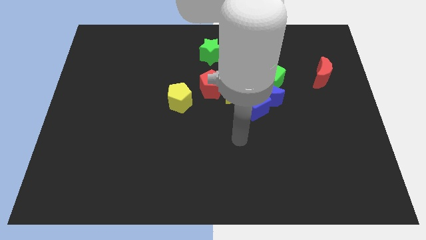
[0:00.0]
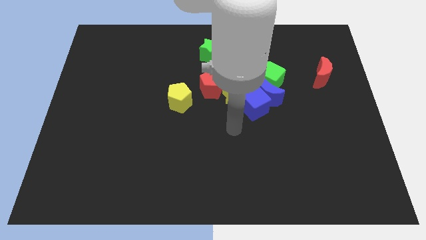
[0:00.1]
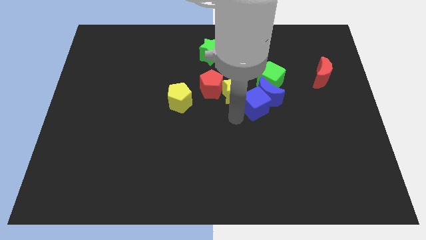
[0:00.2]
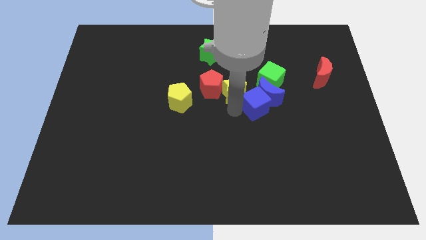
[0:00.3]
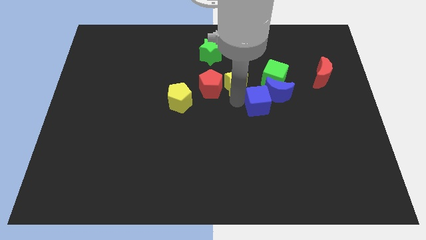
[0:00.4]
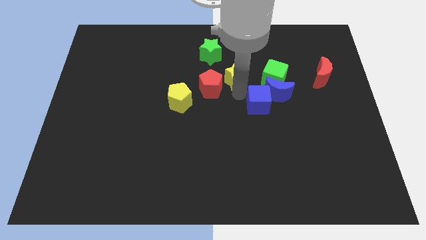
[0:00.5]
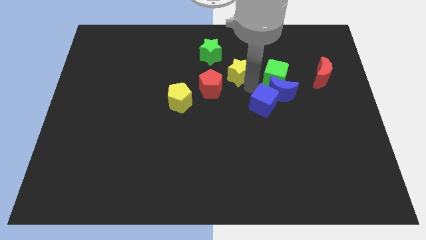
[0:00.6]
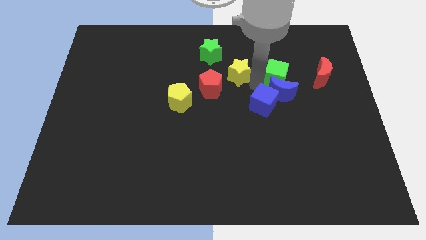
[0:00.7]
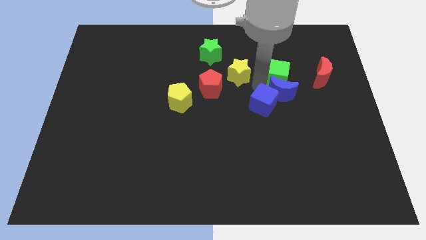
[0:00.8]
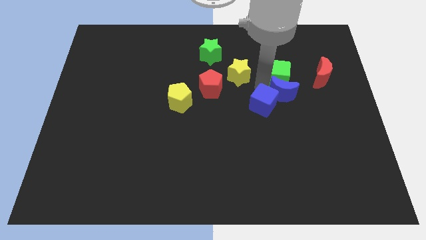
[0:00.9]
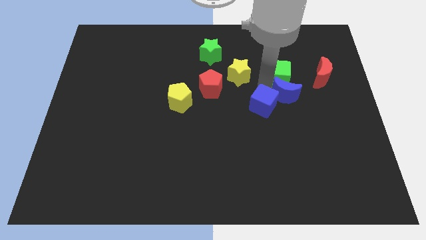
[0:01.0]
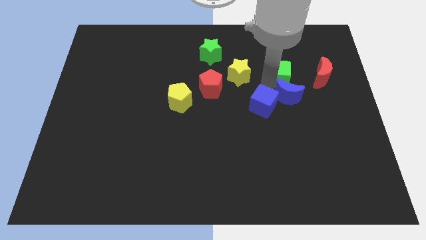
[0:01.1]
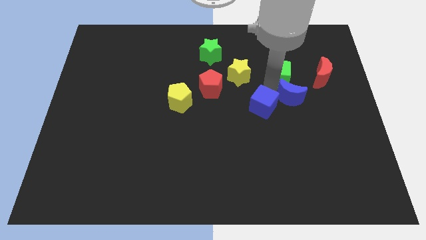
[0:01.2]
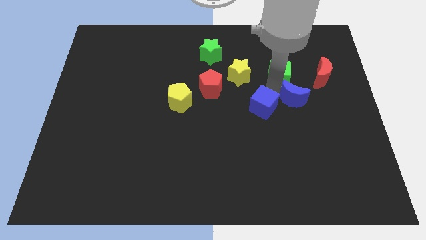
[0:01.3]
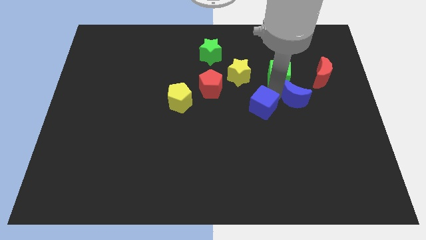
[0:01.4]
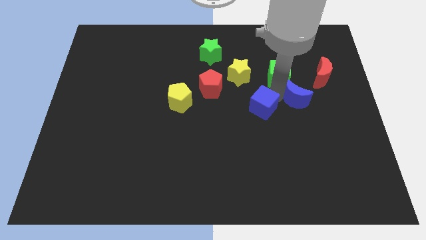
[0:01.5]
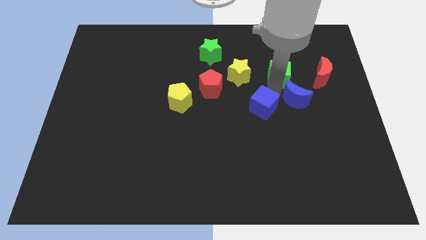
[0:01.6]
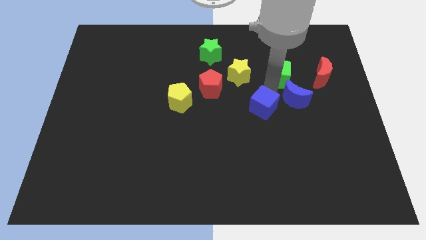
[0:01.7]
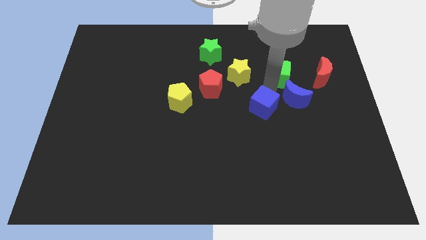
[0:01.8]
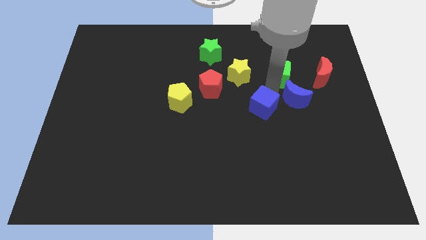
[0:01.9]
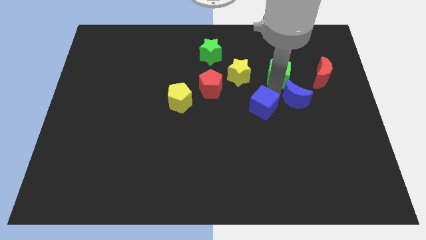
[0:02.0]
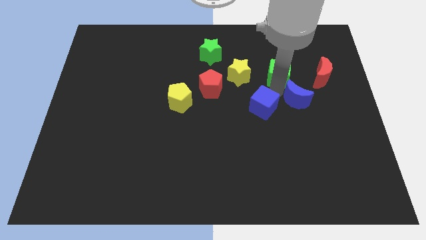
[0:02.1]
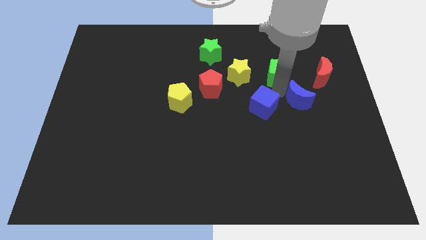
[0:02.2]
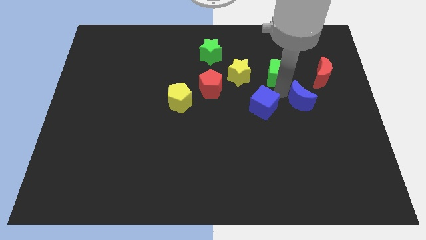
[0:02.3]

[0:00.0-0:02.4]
move the blue moon away from the blue cube, green cube, and yellow star

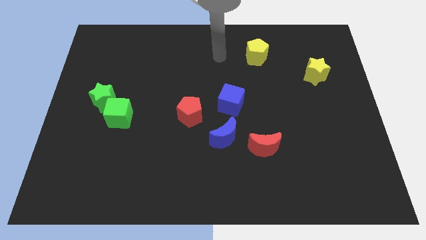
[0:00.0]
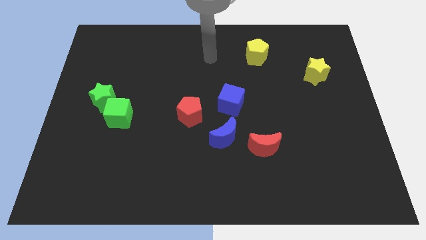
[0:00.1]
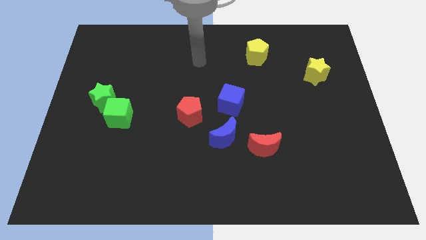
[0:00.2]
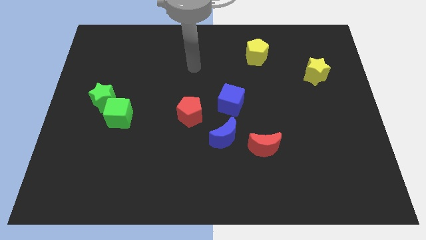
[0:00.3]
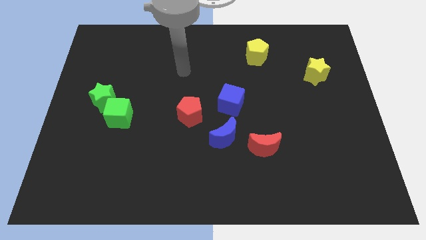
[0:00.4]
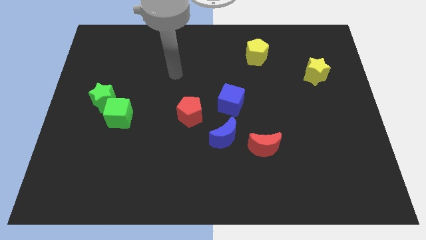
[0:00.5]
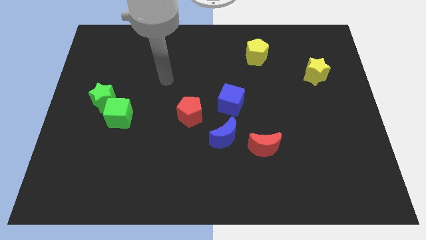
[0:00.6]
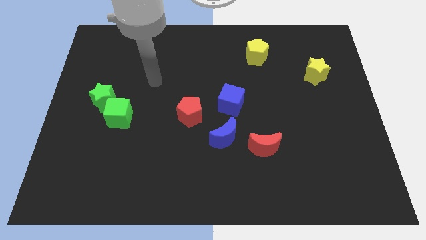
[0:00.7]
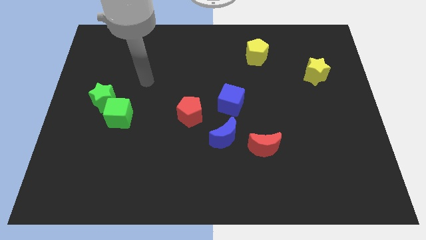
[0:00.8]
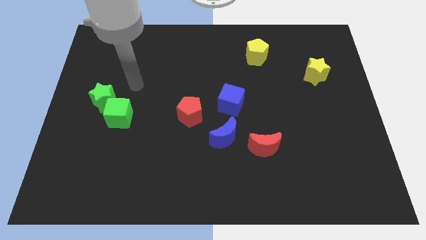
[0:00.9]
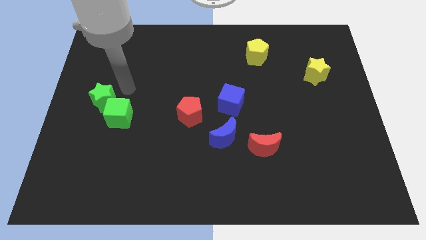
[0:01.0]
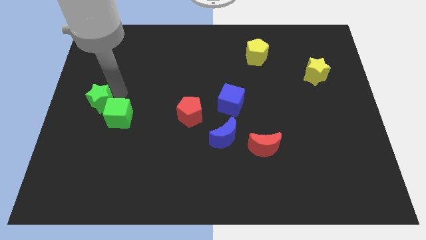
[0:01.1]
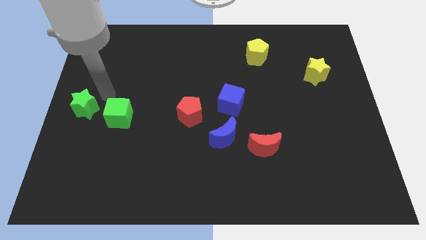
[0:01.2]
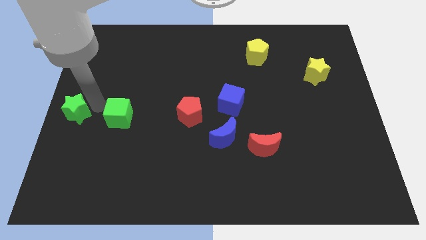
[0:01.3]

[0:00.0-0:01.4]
pull the green cube apart from the green star

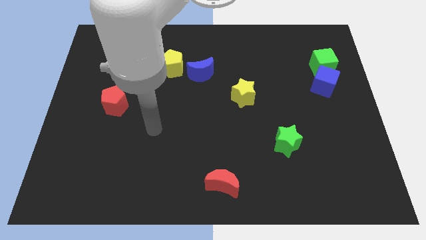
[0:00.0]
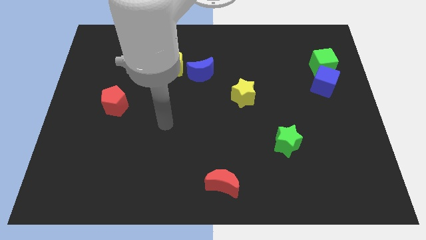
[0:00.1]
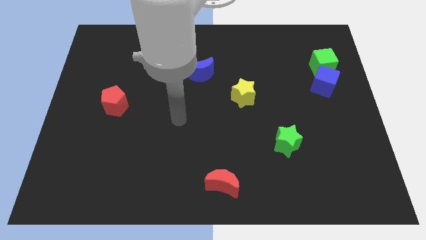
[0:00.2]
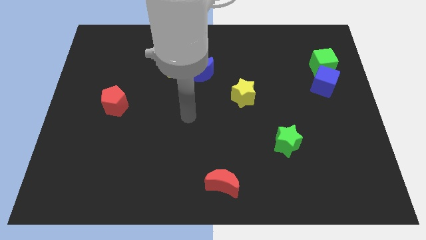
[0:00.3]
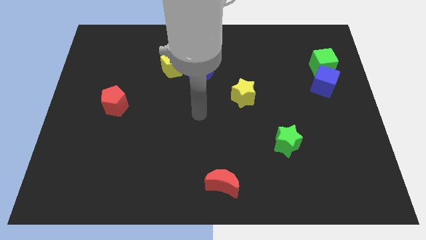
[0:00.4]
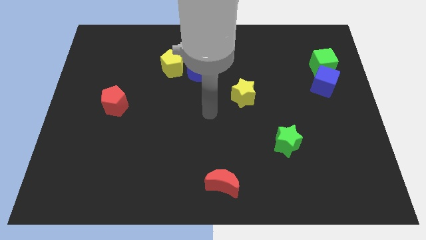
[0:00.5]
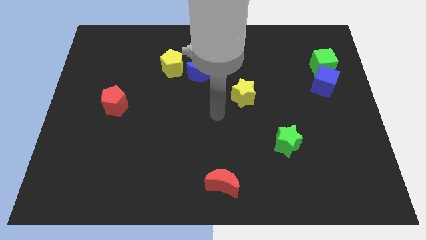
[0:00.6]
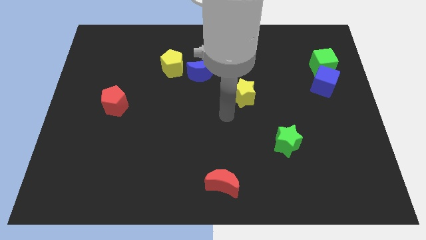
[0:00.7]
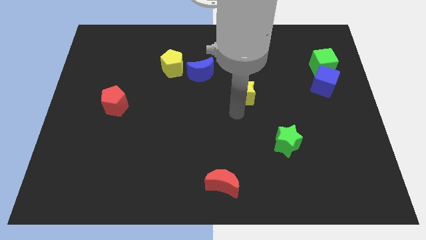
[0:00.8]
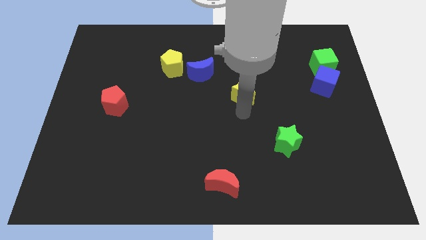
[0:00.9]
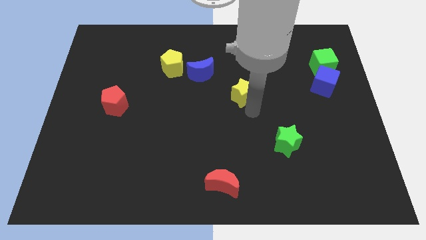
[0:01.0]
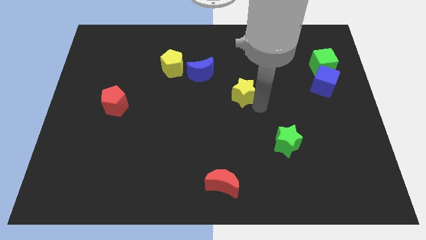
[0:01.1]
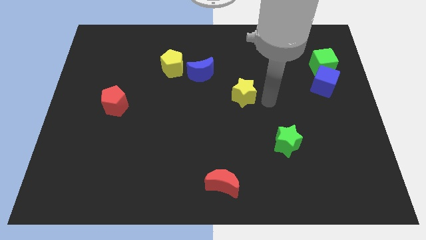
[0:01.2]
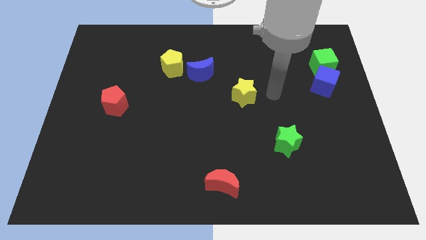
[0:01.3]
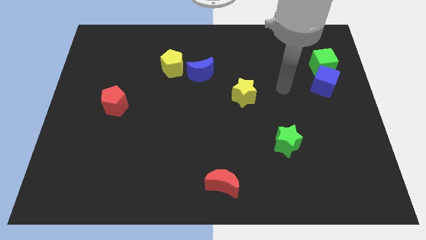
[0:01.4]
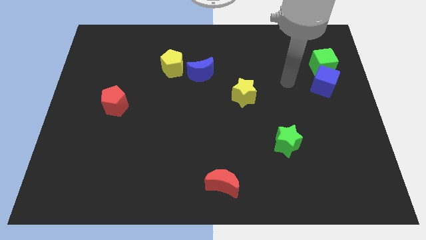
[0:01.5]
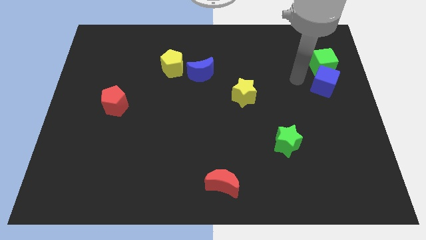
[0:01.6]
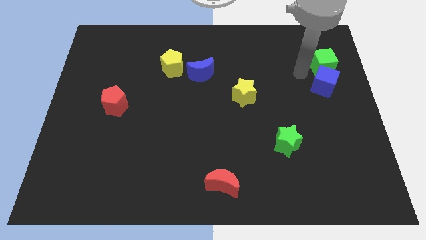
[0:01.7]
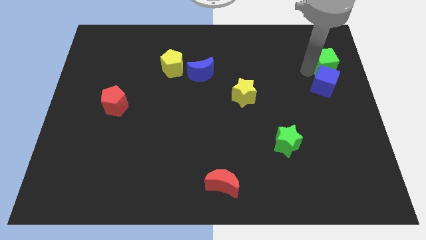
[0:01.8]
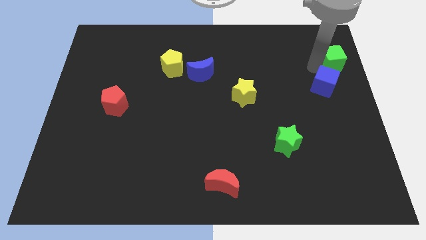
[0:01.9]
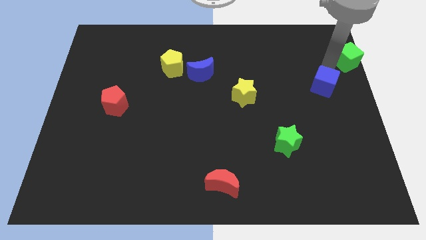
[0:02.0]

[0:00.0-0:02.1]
move the blue cube away from the green cube

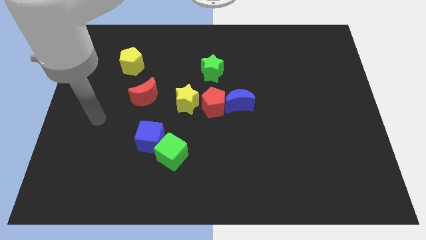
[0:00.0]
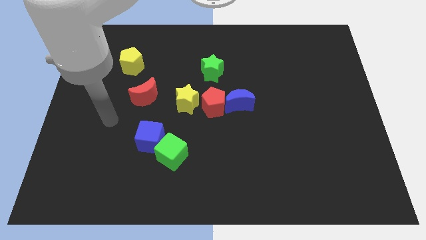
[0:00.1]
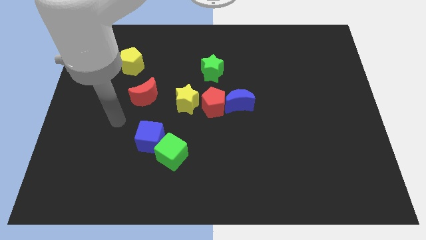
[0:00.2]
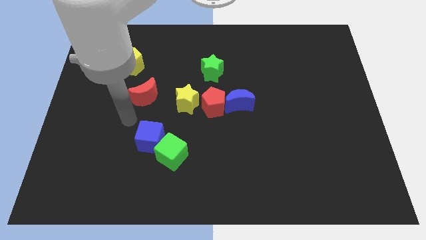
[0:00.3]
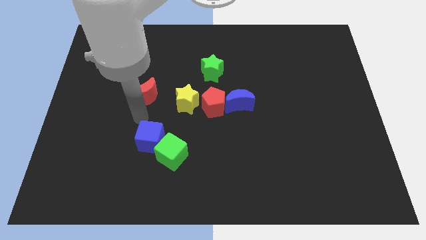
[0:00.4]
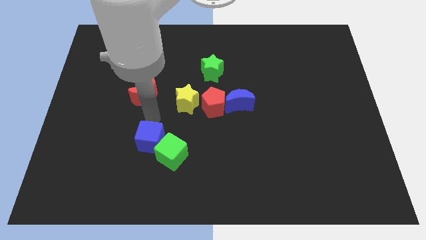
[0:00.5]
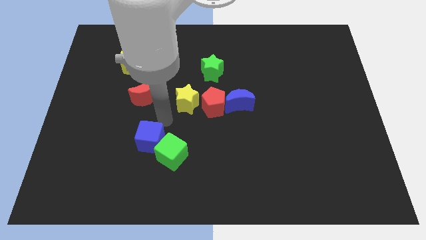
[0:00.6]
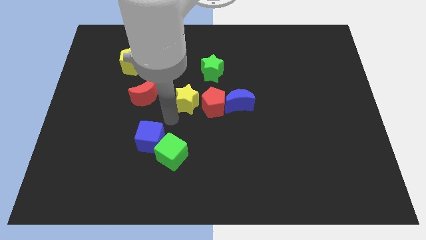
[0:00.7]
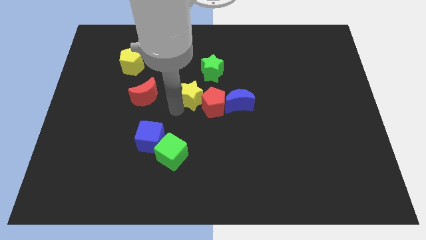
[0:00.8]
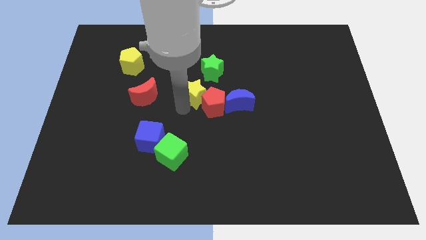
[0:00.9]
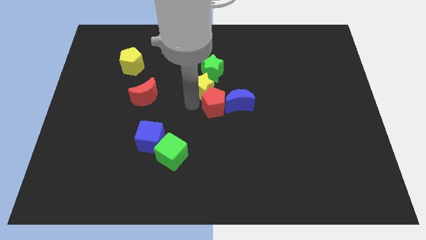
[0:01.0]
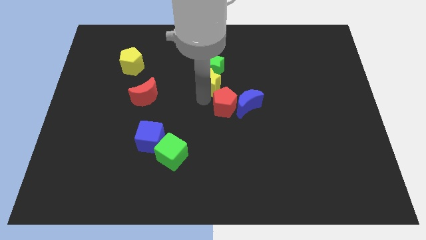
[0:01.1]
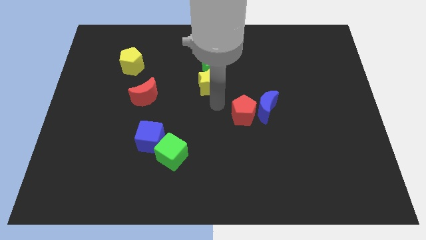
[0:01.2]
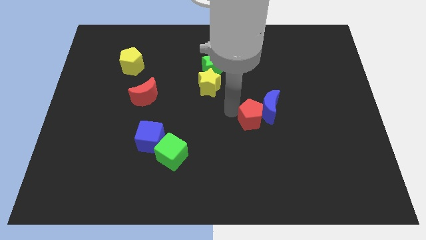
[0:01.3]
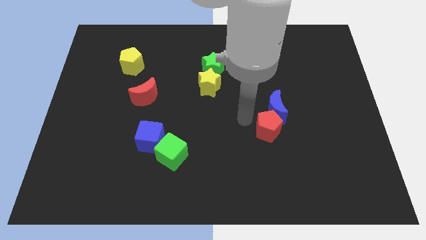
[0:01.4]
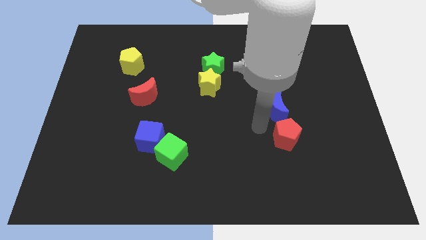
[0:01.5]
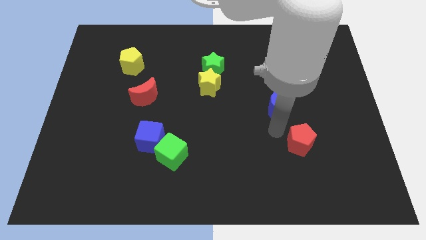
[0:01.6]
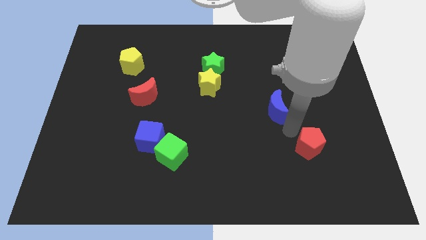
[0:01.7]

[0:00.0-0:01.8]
pull the blue moon apart from the red pentagon

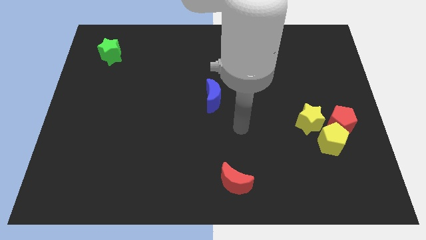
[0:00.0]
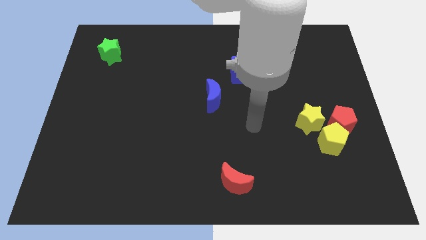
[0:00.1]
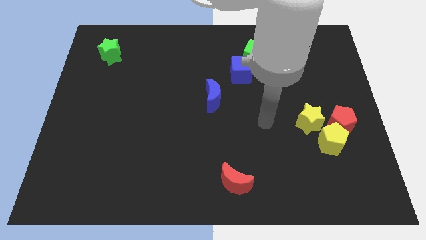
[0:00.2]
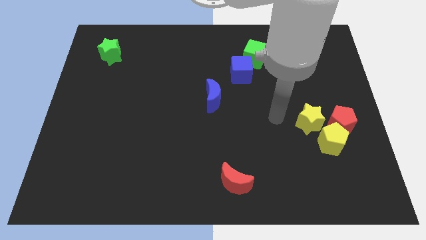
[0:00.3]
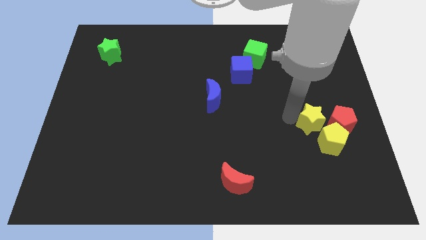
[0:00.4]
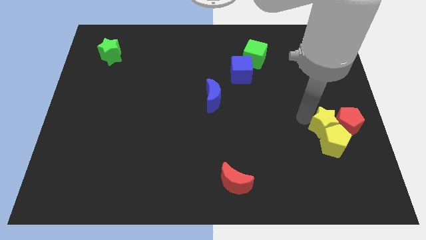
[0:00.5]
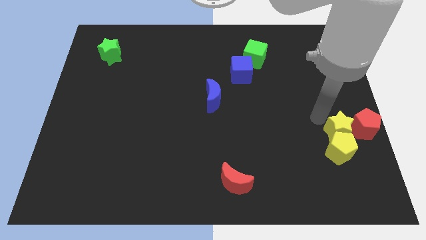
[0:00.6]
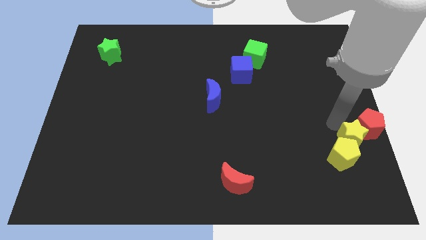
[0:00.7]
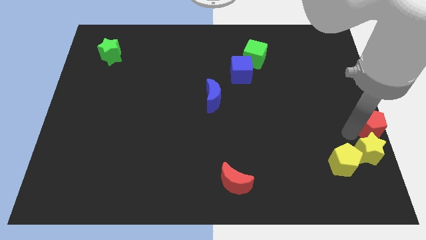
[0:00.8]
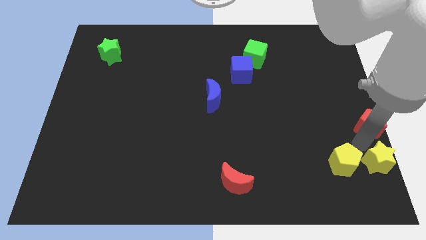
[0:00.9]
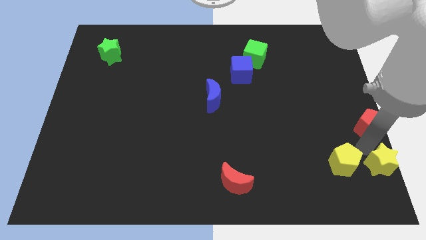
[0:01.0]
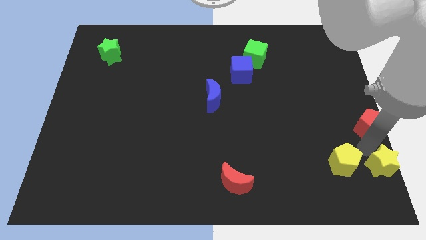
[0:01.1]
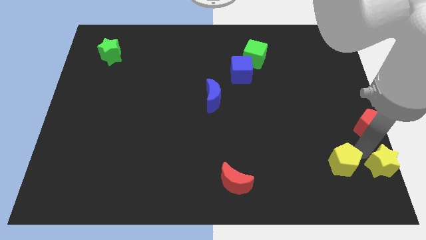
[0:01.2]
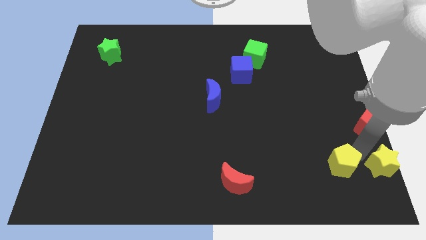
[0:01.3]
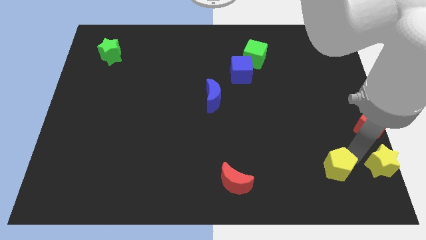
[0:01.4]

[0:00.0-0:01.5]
pull the yellow pentagon apart from the red pentagon and yellow star

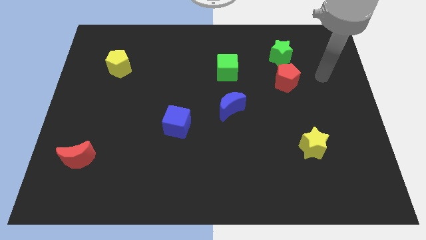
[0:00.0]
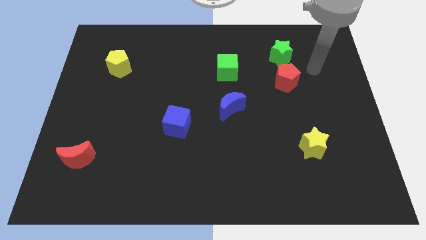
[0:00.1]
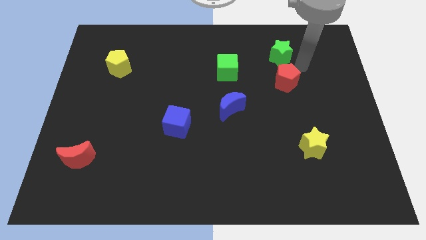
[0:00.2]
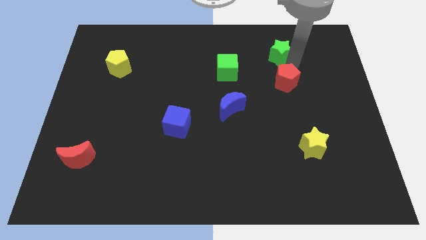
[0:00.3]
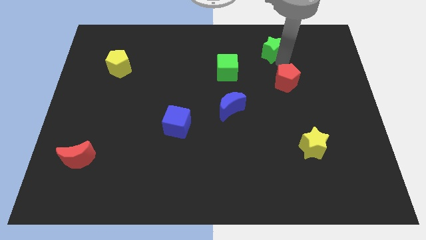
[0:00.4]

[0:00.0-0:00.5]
move the red pentagon away from the green star
